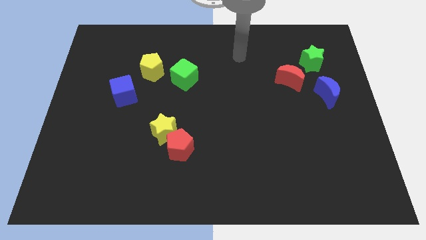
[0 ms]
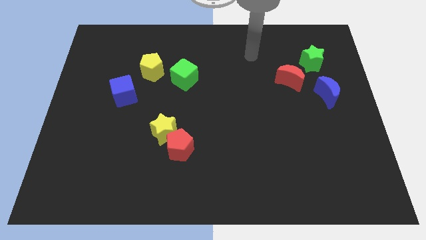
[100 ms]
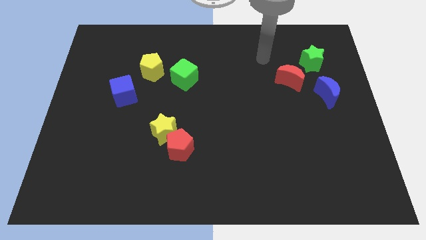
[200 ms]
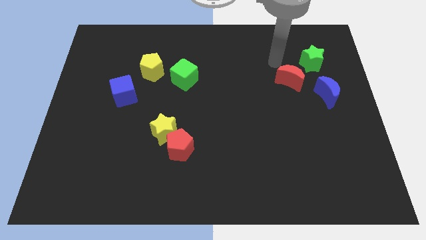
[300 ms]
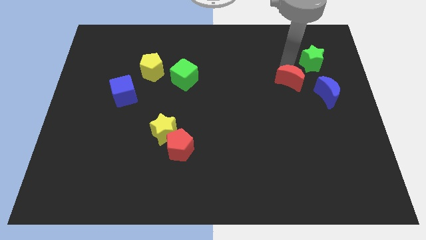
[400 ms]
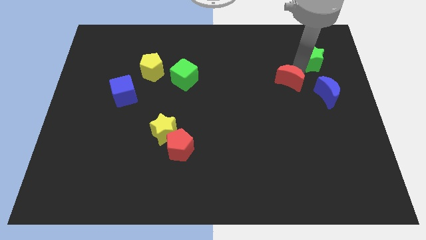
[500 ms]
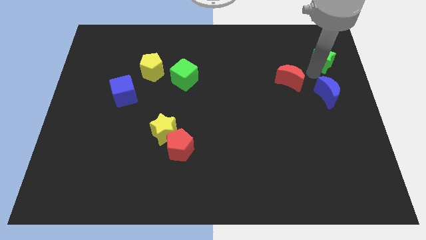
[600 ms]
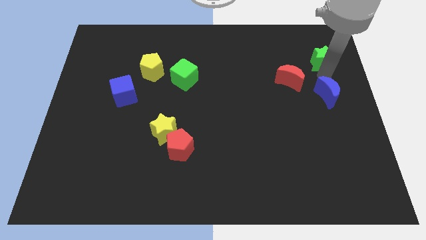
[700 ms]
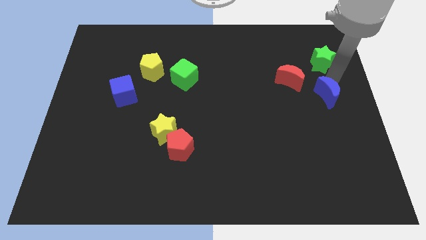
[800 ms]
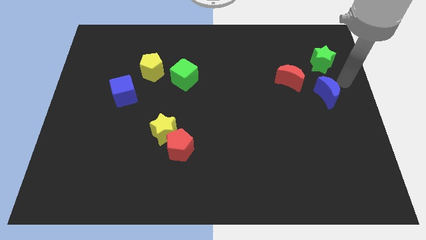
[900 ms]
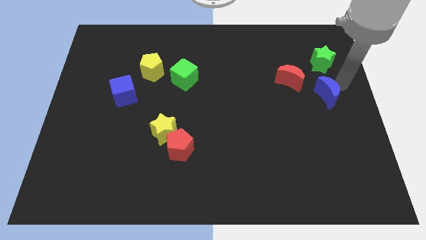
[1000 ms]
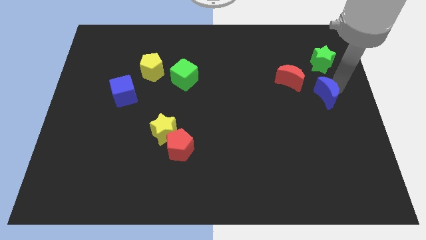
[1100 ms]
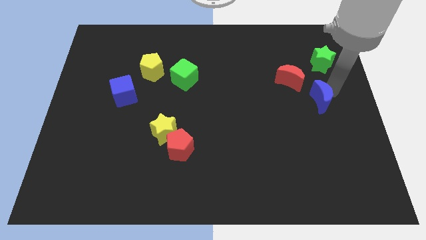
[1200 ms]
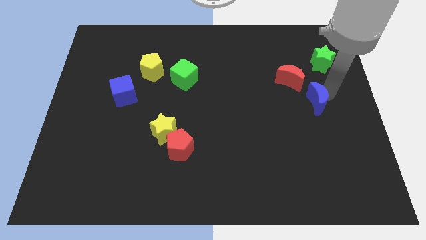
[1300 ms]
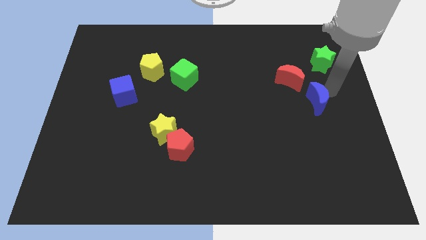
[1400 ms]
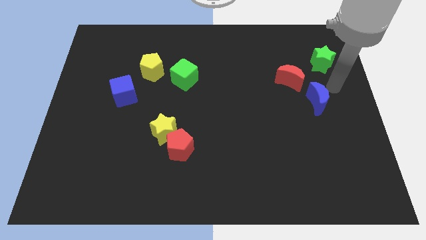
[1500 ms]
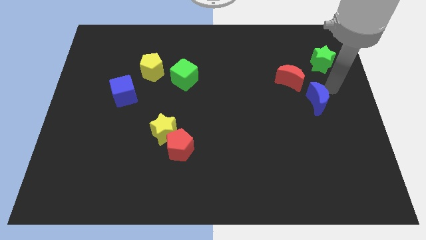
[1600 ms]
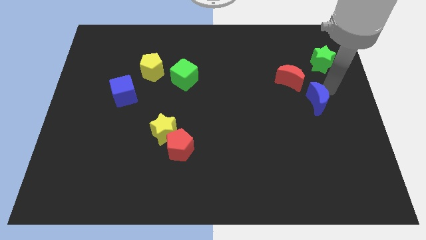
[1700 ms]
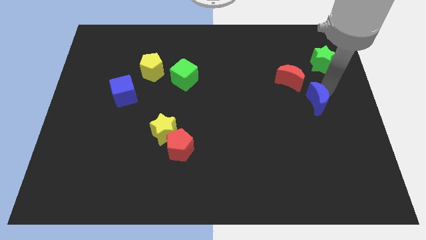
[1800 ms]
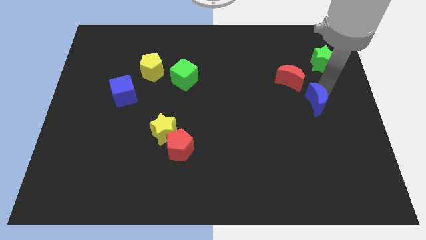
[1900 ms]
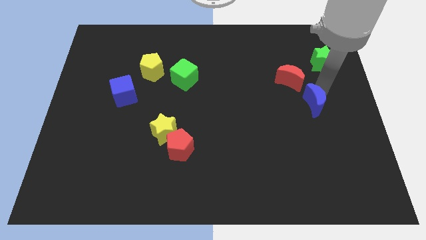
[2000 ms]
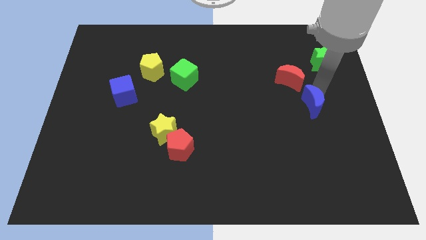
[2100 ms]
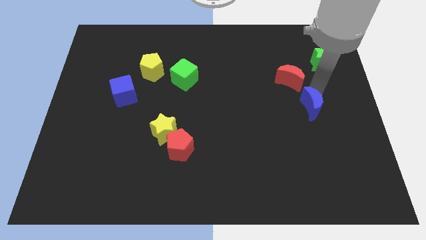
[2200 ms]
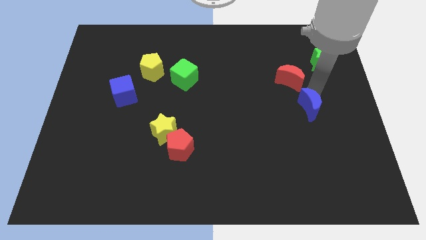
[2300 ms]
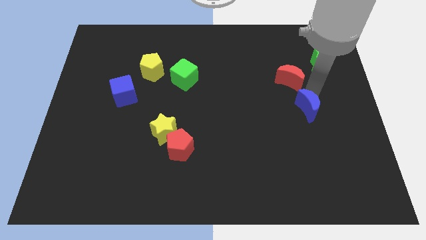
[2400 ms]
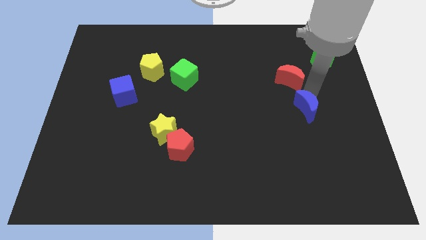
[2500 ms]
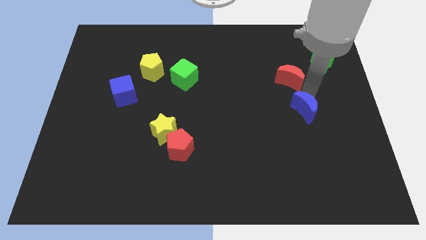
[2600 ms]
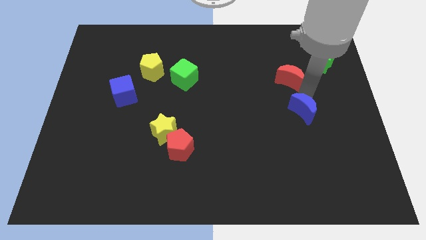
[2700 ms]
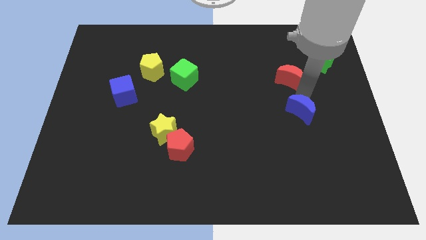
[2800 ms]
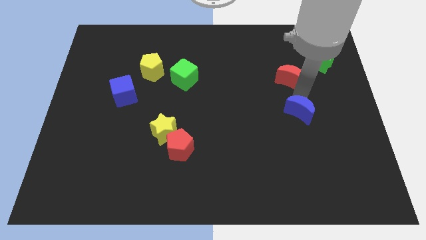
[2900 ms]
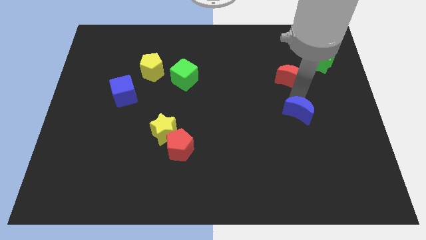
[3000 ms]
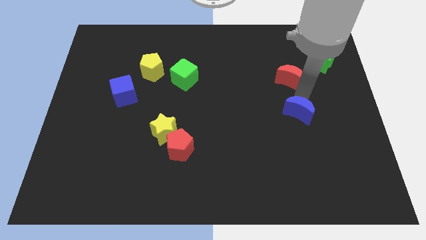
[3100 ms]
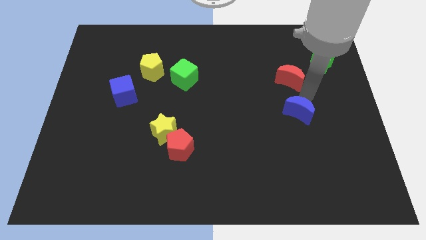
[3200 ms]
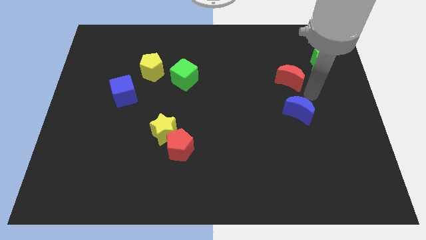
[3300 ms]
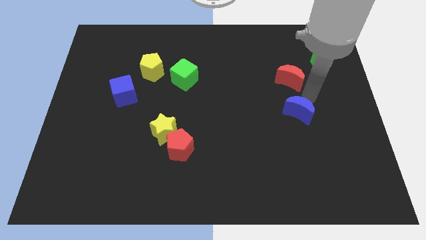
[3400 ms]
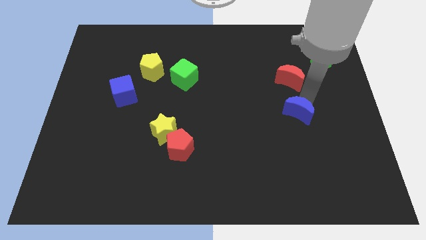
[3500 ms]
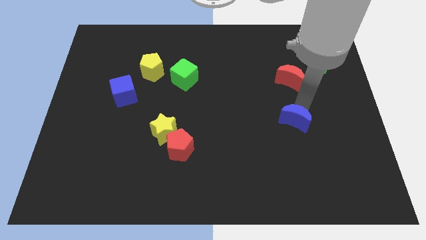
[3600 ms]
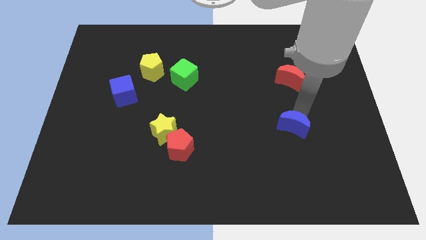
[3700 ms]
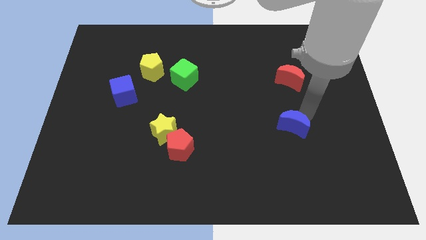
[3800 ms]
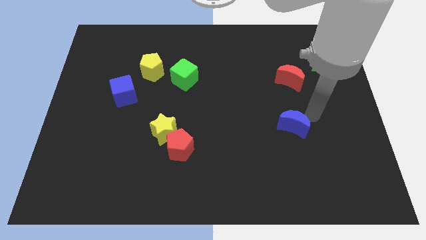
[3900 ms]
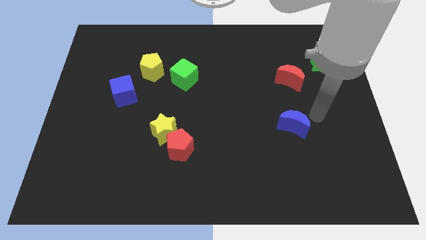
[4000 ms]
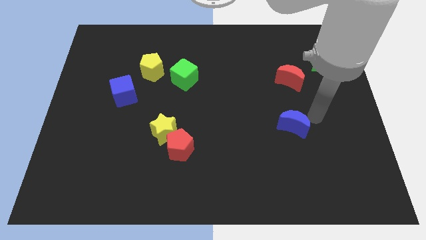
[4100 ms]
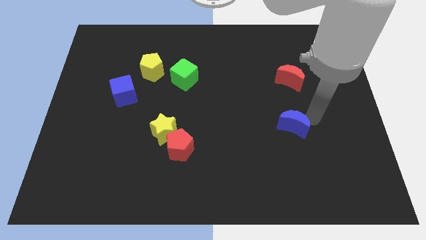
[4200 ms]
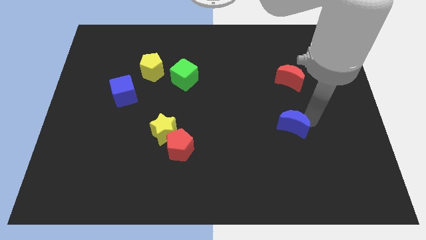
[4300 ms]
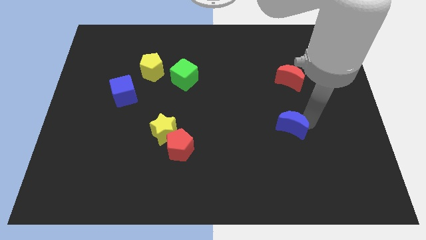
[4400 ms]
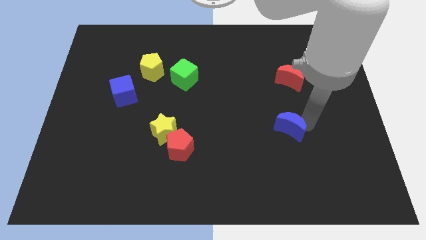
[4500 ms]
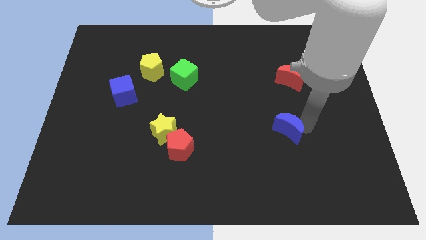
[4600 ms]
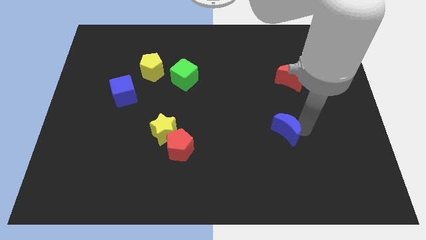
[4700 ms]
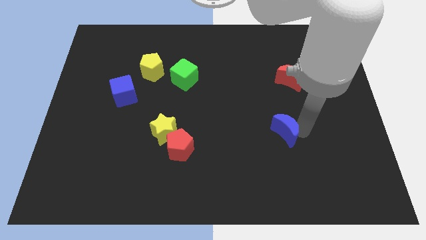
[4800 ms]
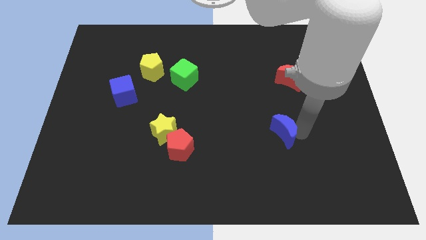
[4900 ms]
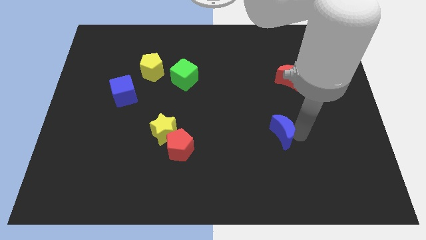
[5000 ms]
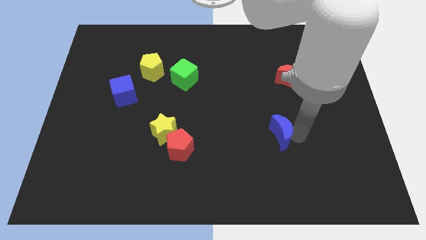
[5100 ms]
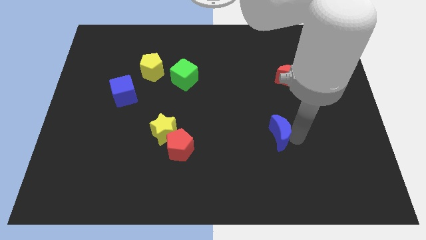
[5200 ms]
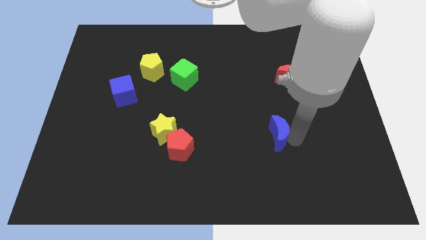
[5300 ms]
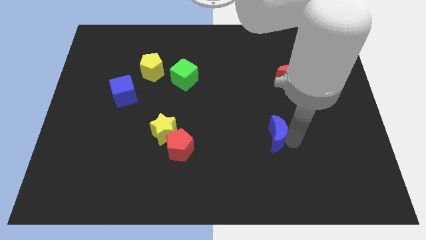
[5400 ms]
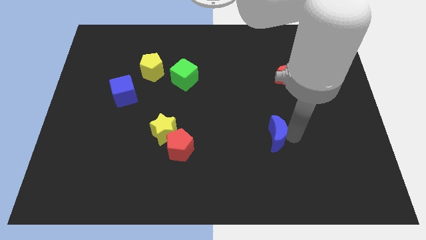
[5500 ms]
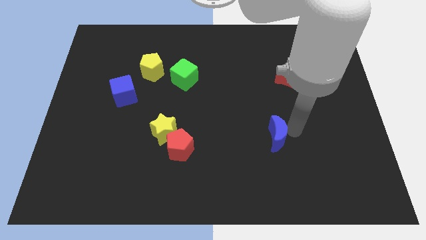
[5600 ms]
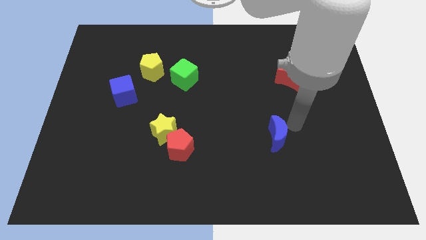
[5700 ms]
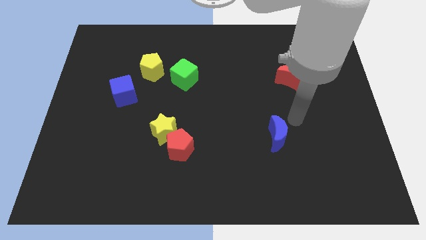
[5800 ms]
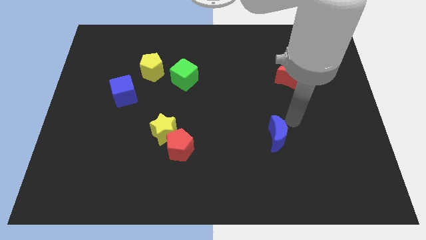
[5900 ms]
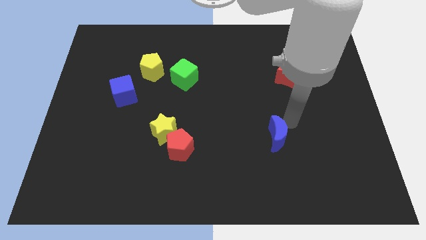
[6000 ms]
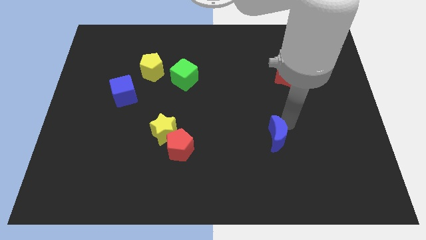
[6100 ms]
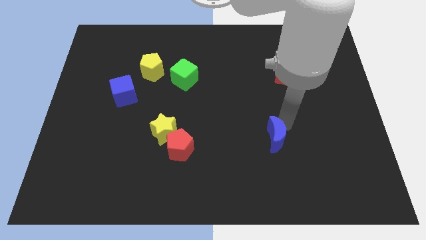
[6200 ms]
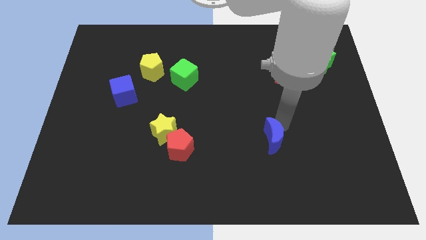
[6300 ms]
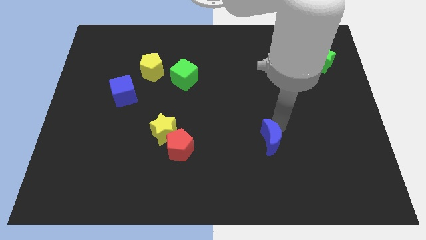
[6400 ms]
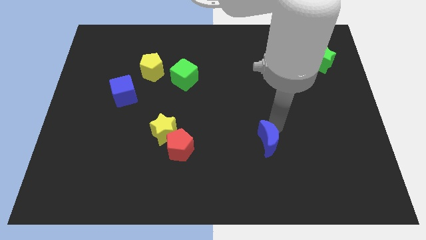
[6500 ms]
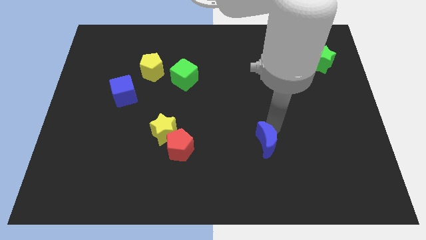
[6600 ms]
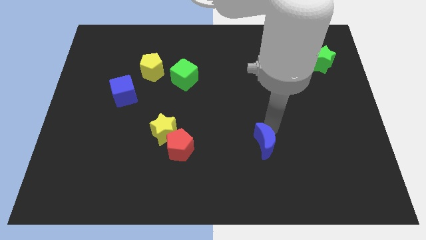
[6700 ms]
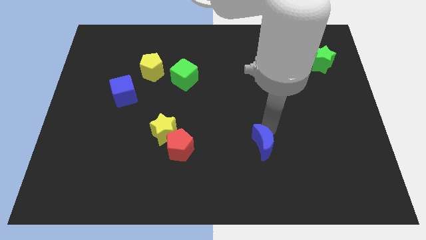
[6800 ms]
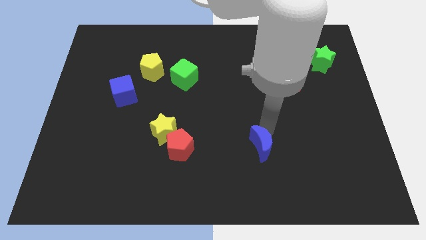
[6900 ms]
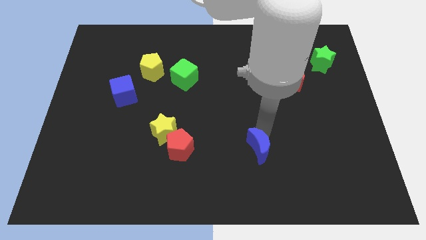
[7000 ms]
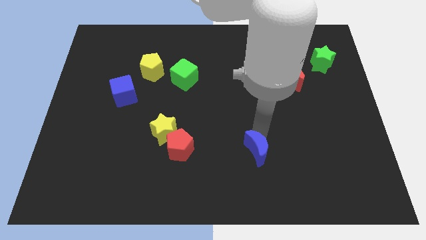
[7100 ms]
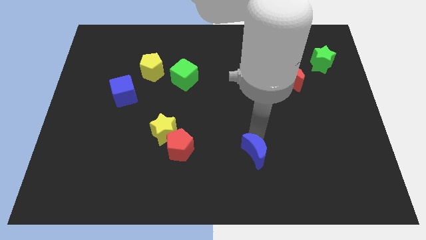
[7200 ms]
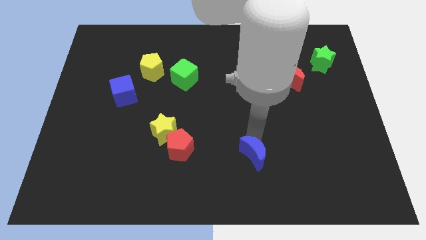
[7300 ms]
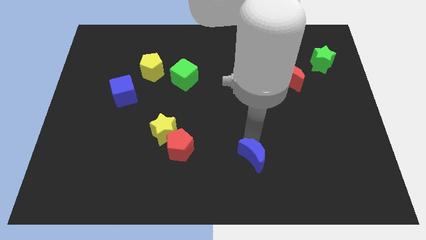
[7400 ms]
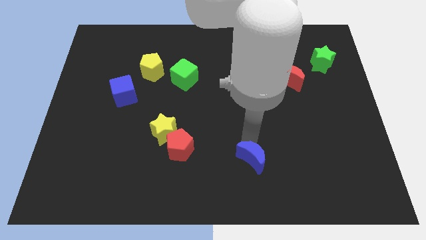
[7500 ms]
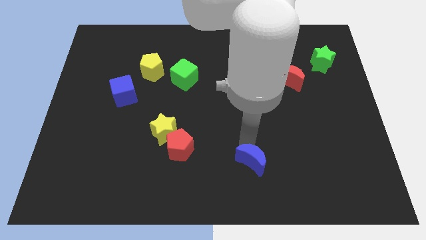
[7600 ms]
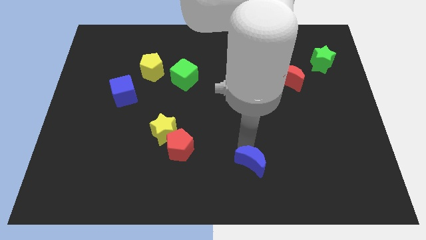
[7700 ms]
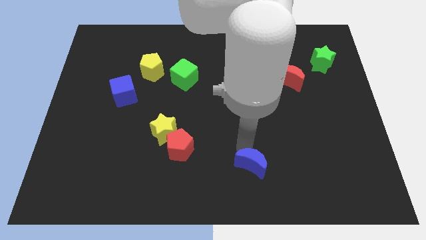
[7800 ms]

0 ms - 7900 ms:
slide the blue moon to the bottom

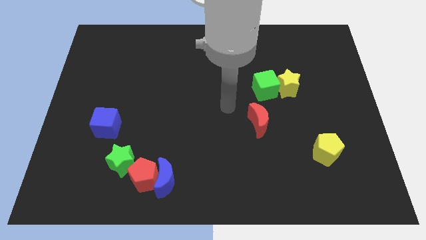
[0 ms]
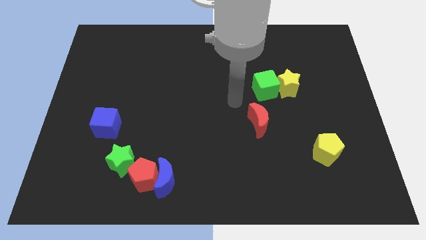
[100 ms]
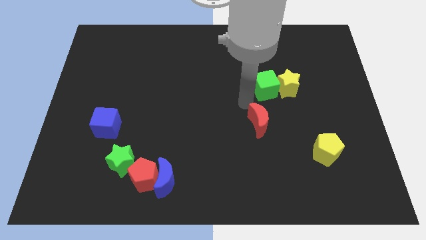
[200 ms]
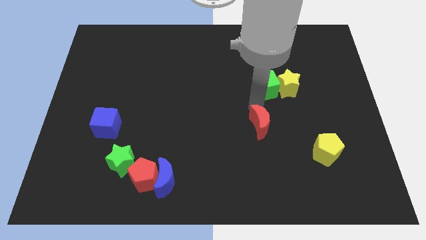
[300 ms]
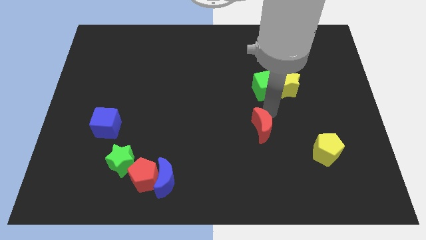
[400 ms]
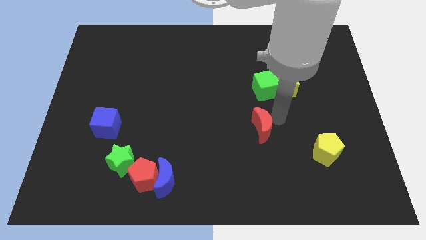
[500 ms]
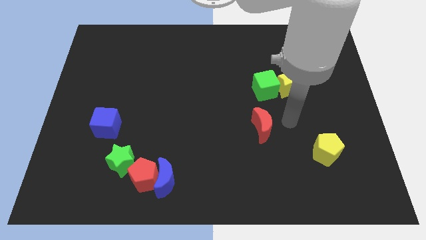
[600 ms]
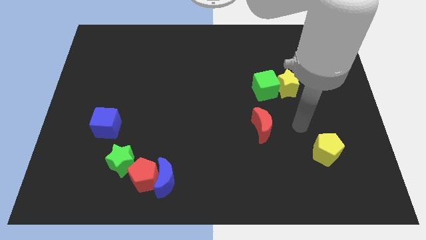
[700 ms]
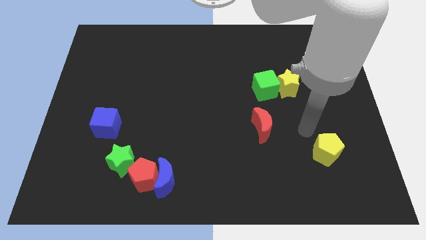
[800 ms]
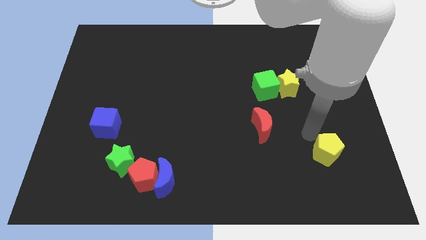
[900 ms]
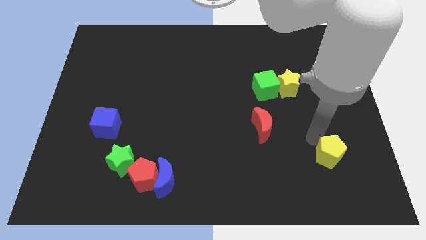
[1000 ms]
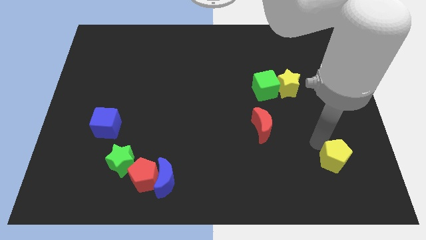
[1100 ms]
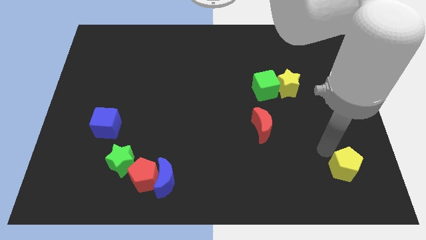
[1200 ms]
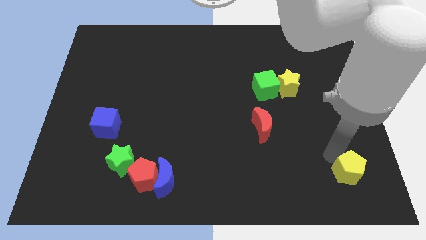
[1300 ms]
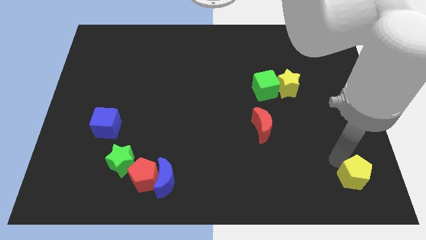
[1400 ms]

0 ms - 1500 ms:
slide the yellow pentagon to the bottom right of the board
